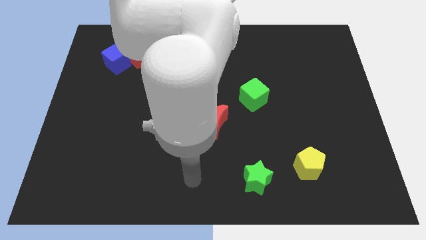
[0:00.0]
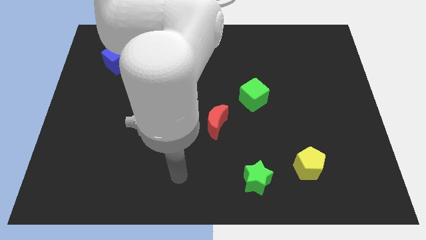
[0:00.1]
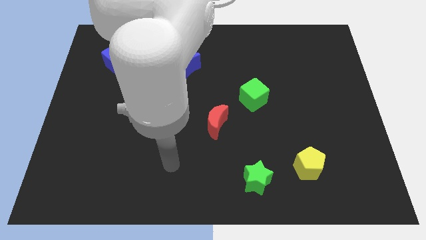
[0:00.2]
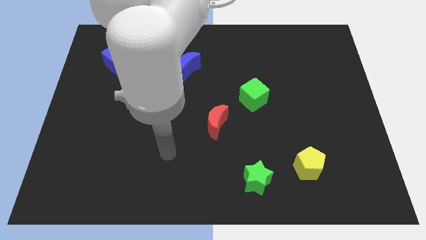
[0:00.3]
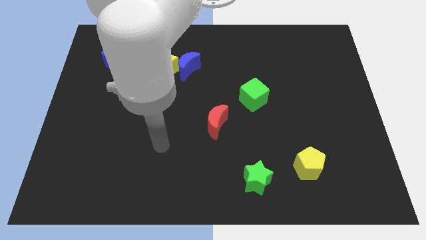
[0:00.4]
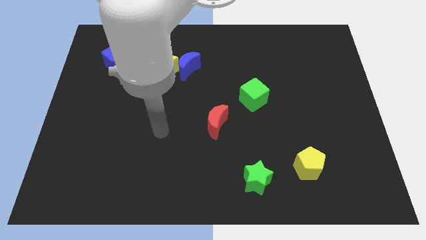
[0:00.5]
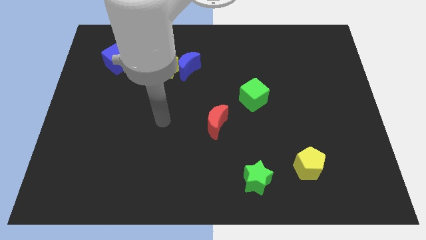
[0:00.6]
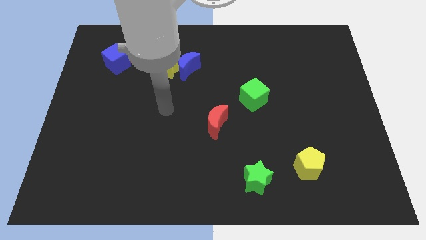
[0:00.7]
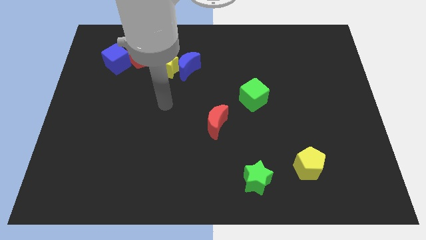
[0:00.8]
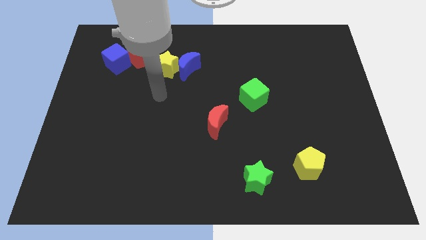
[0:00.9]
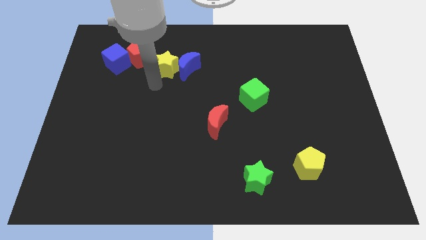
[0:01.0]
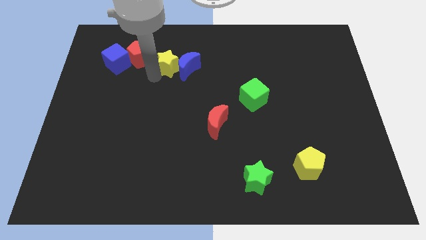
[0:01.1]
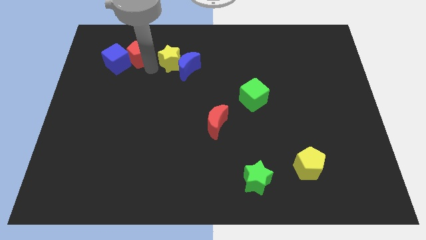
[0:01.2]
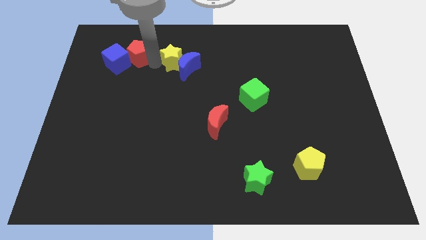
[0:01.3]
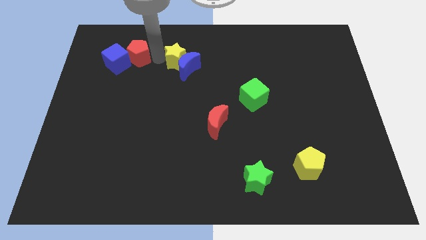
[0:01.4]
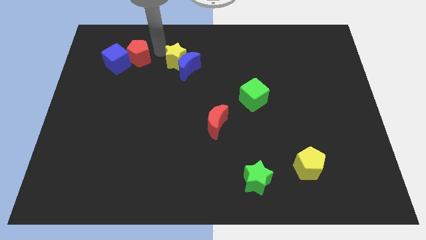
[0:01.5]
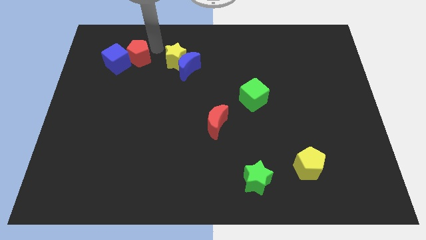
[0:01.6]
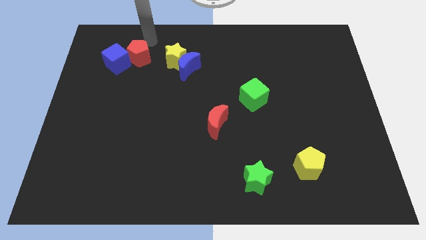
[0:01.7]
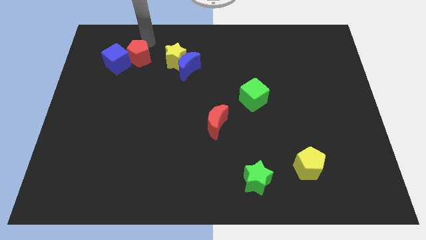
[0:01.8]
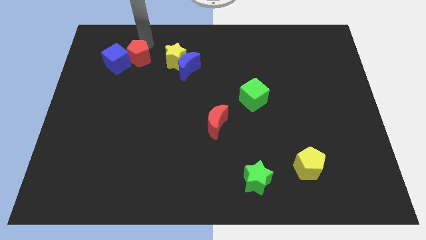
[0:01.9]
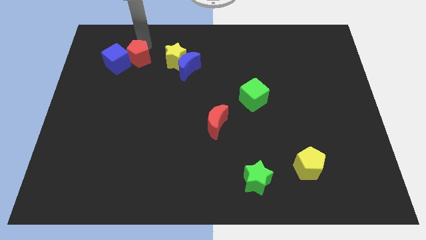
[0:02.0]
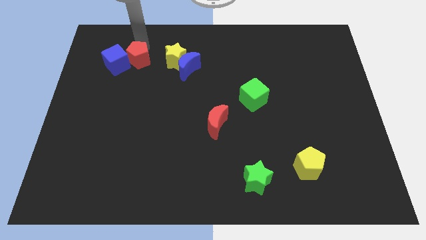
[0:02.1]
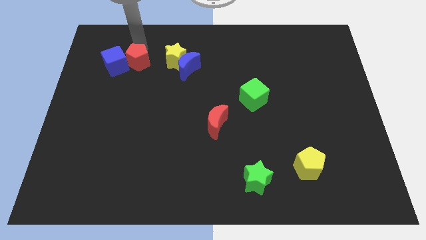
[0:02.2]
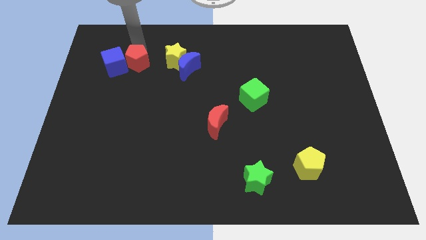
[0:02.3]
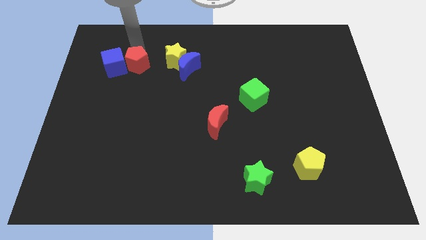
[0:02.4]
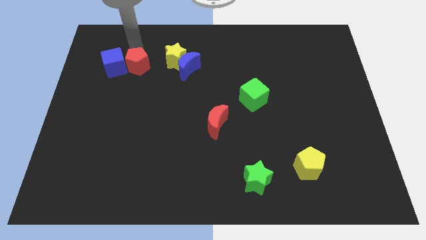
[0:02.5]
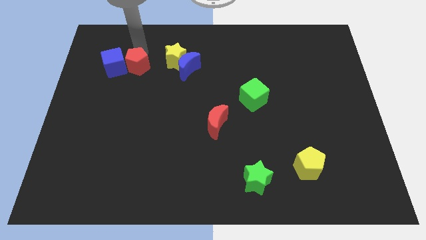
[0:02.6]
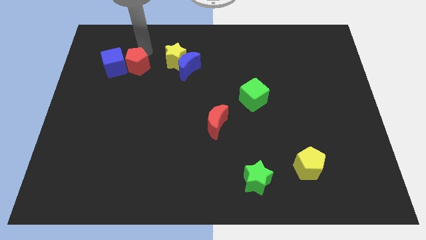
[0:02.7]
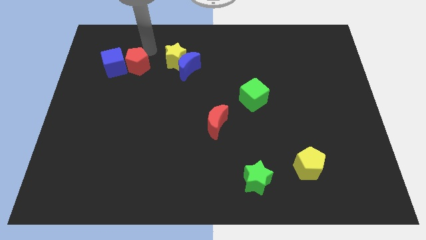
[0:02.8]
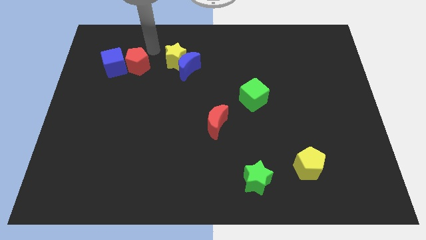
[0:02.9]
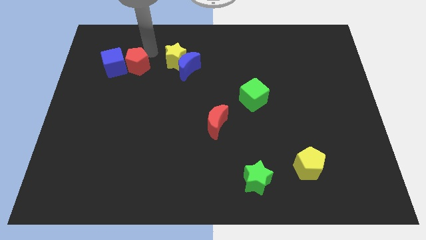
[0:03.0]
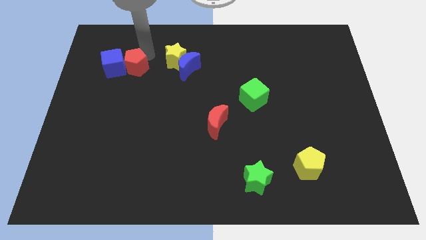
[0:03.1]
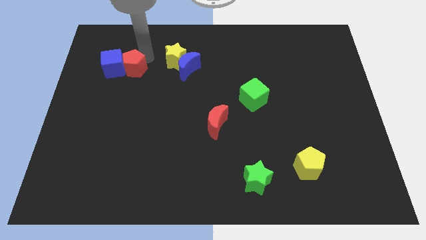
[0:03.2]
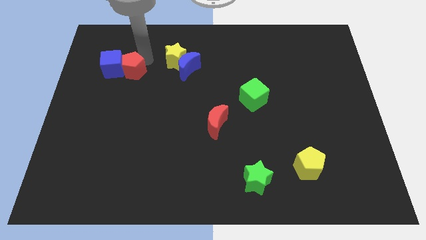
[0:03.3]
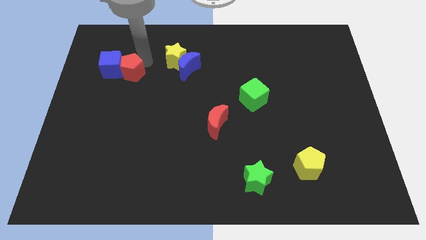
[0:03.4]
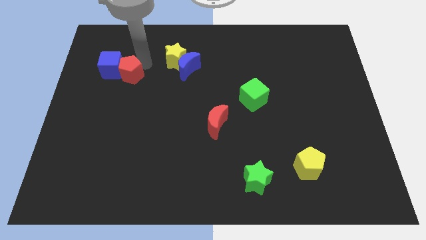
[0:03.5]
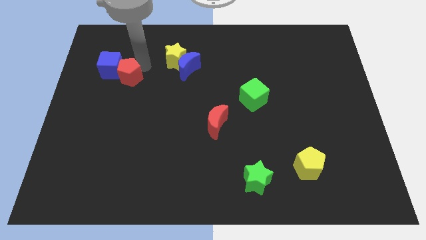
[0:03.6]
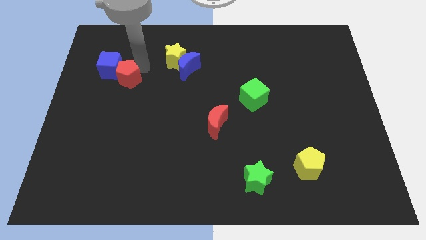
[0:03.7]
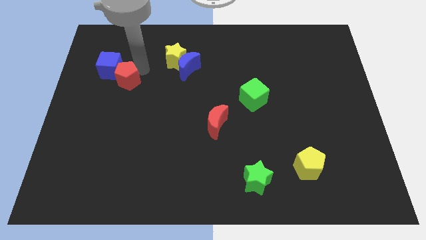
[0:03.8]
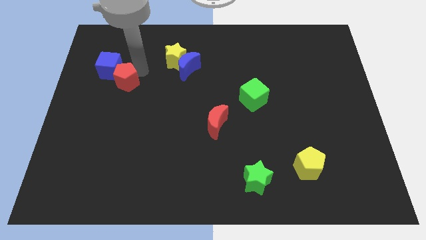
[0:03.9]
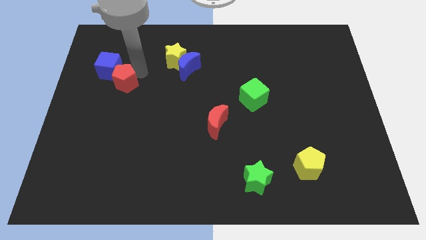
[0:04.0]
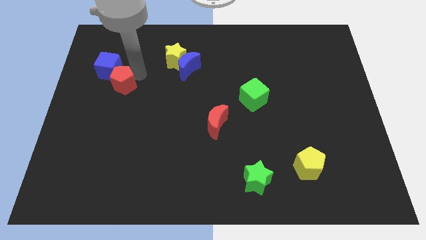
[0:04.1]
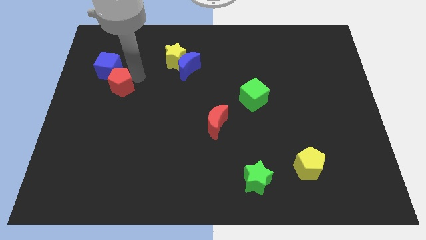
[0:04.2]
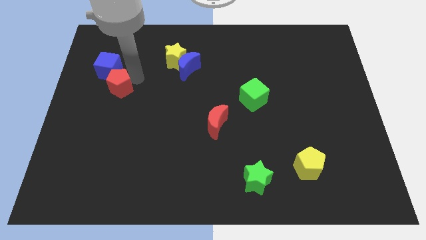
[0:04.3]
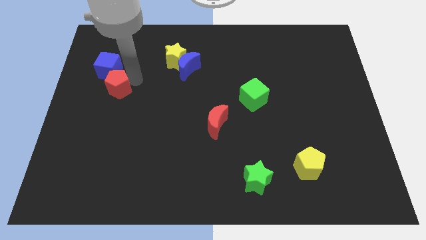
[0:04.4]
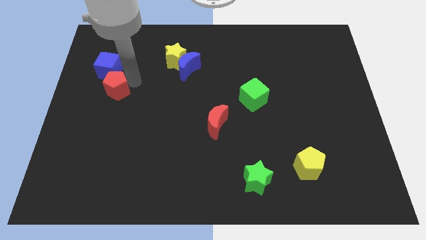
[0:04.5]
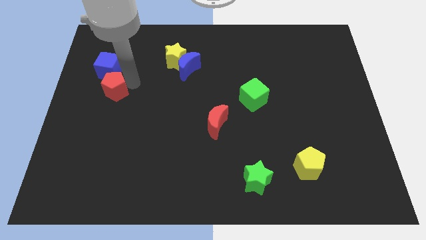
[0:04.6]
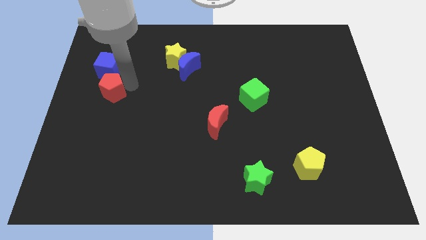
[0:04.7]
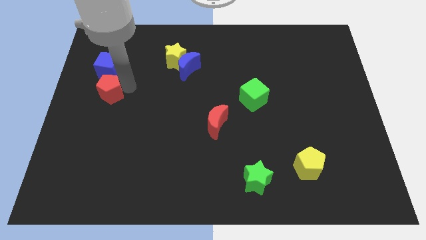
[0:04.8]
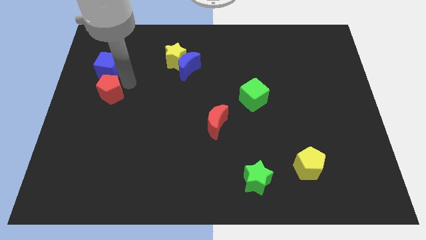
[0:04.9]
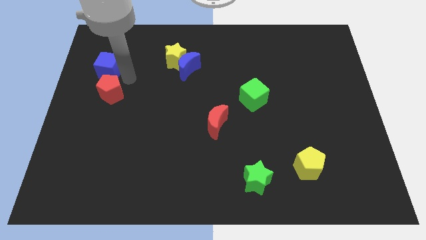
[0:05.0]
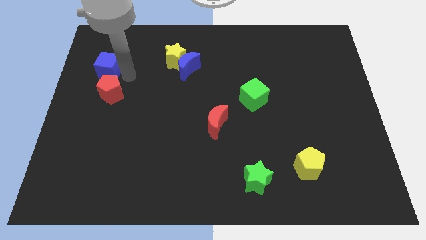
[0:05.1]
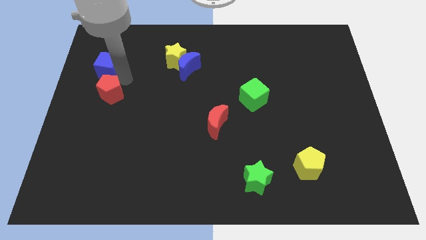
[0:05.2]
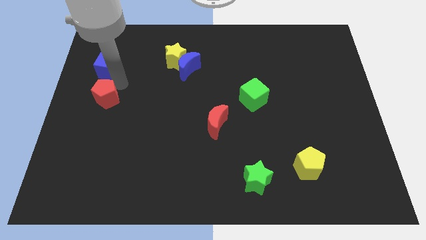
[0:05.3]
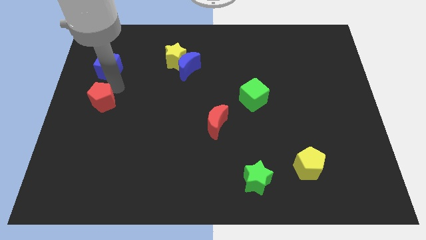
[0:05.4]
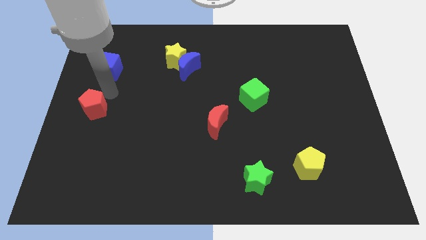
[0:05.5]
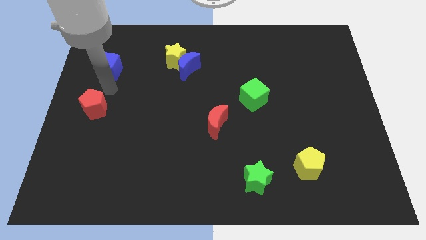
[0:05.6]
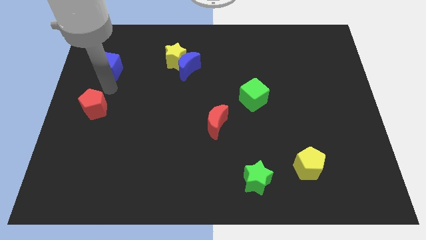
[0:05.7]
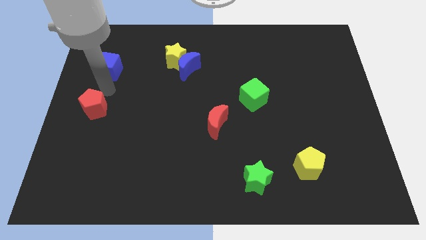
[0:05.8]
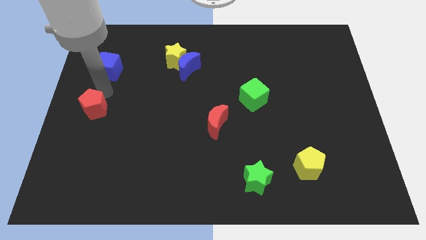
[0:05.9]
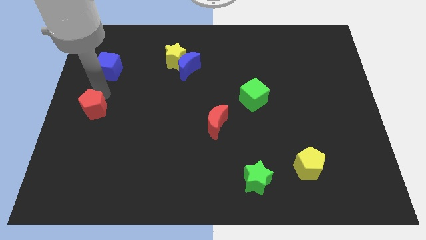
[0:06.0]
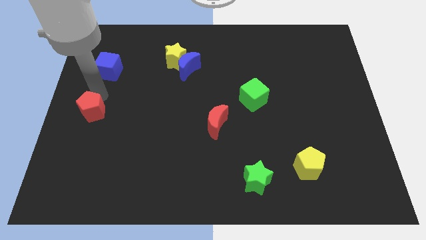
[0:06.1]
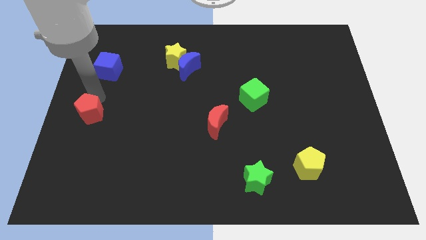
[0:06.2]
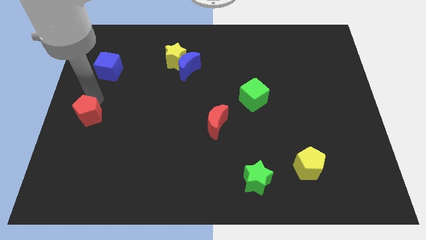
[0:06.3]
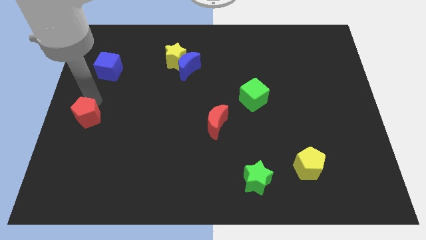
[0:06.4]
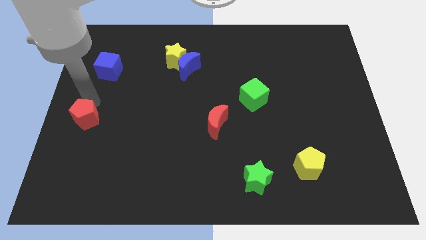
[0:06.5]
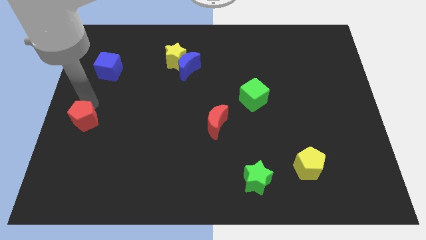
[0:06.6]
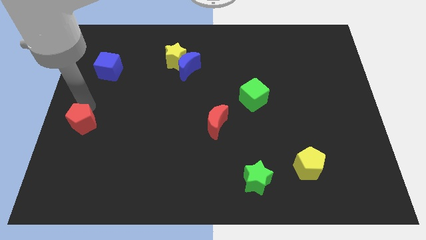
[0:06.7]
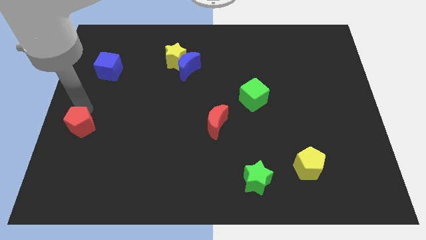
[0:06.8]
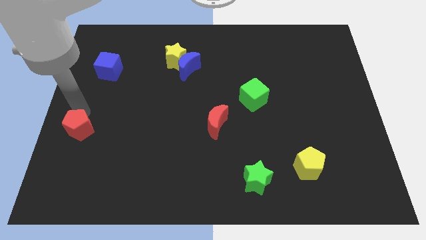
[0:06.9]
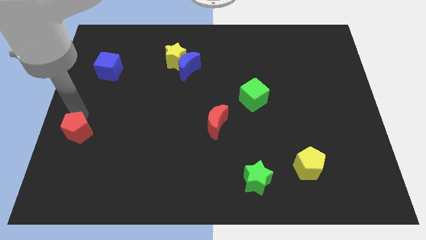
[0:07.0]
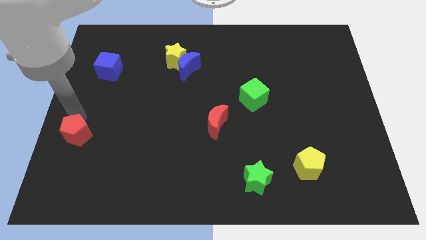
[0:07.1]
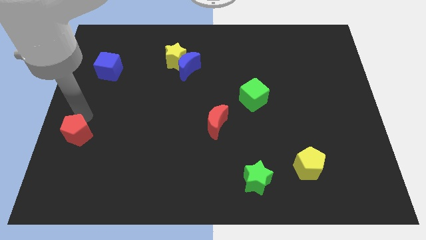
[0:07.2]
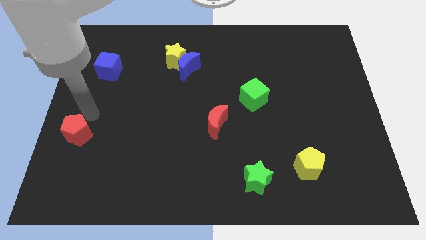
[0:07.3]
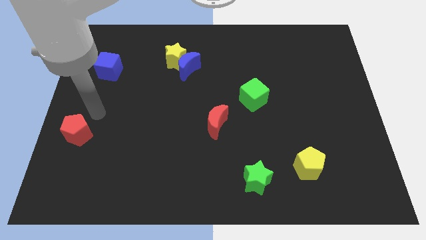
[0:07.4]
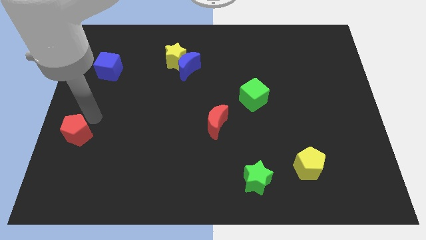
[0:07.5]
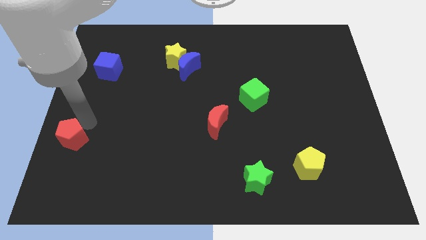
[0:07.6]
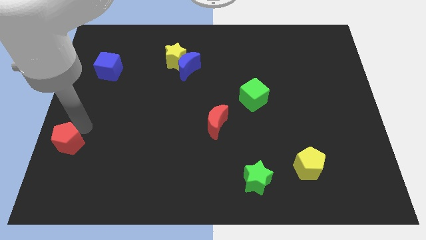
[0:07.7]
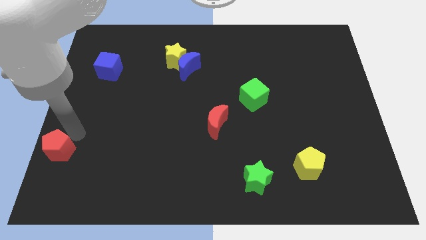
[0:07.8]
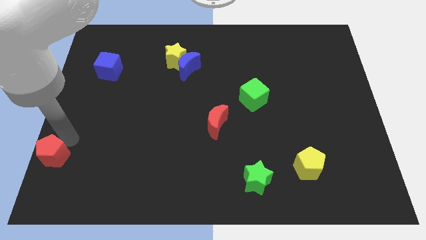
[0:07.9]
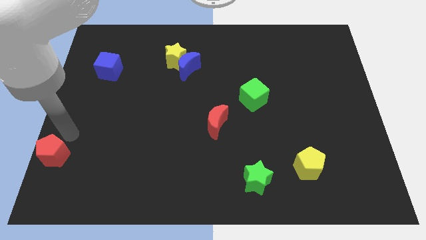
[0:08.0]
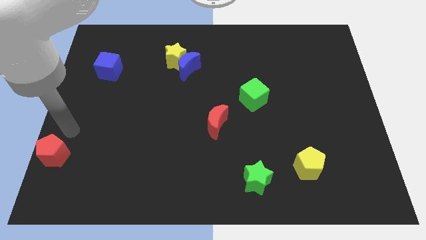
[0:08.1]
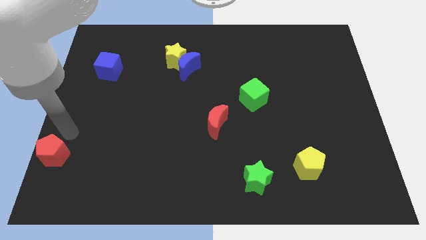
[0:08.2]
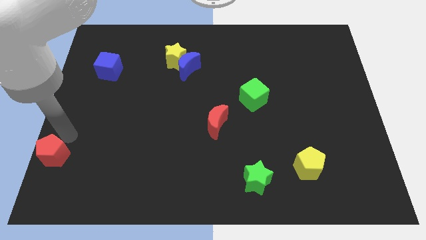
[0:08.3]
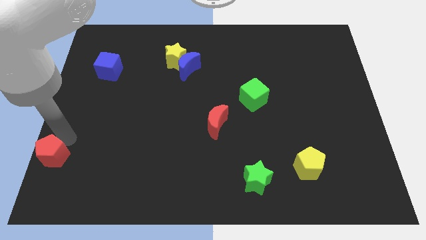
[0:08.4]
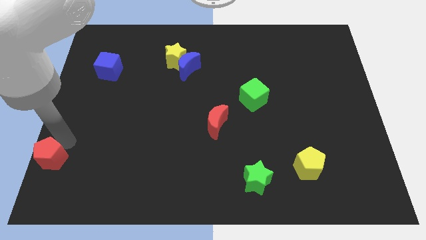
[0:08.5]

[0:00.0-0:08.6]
push the red pentagon to the bottom left
